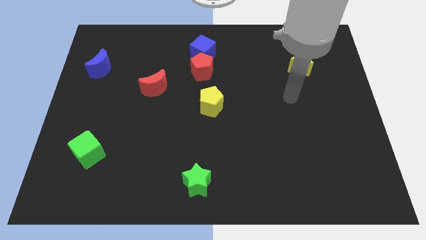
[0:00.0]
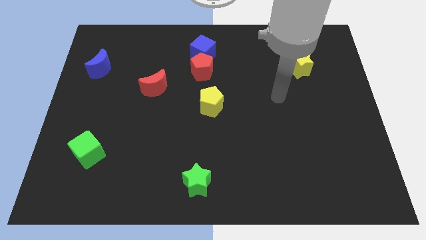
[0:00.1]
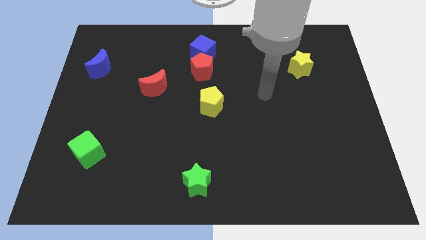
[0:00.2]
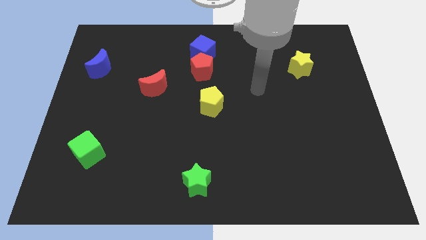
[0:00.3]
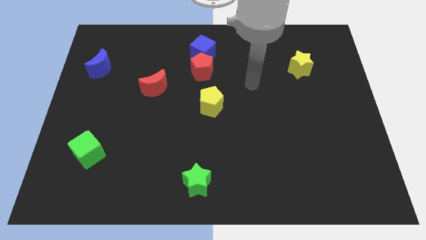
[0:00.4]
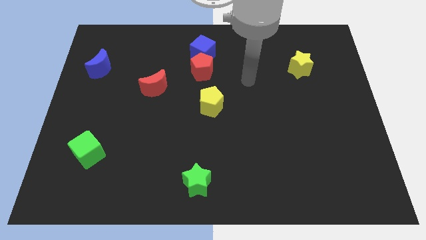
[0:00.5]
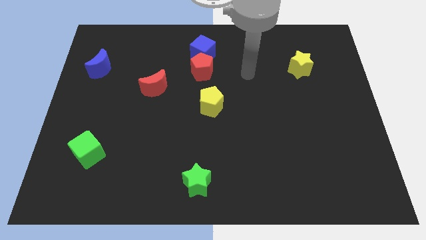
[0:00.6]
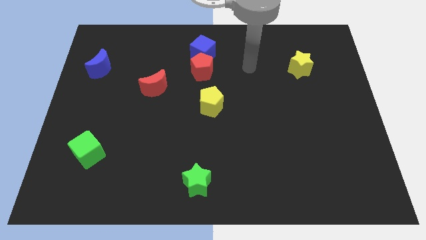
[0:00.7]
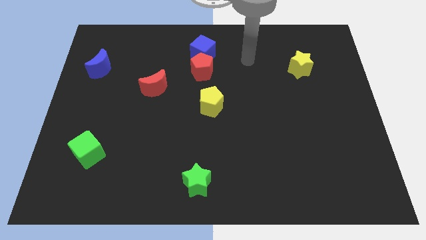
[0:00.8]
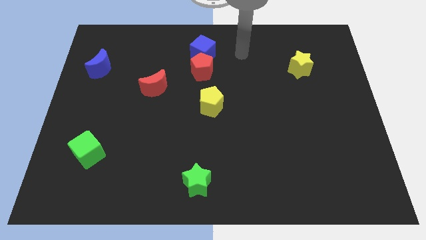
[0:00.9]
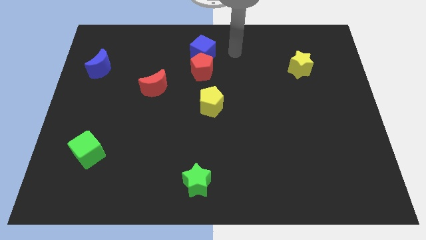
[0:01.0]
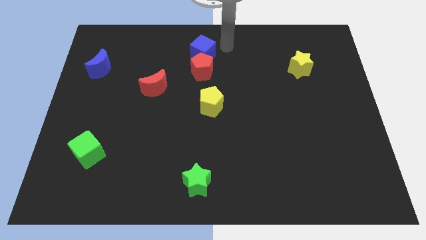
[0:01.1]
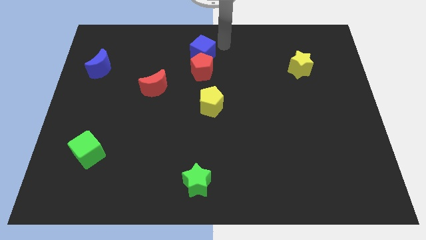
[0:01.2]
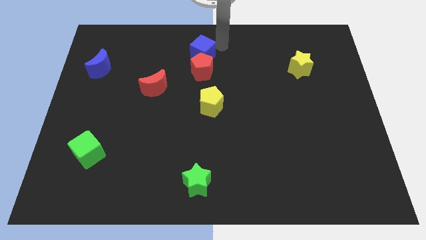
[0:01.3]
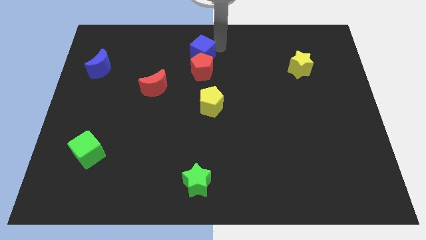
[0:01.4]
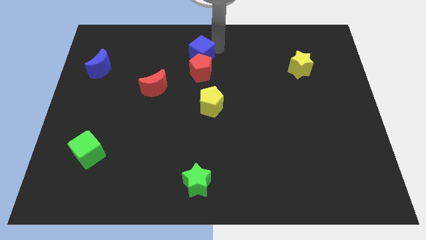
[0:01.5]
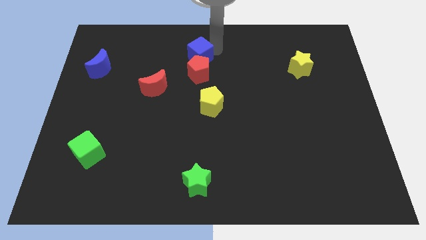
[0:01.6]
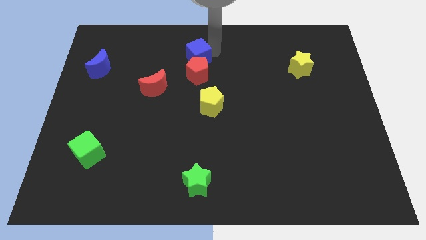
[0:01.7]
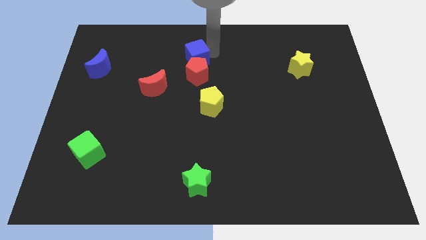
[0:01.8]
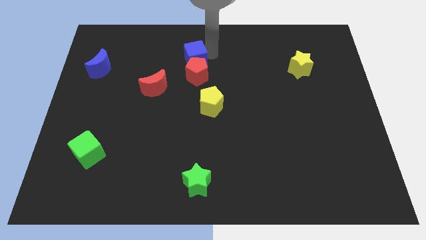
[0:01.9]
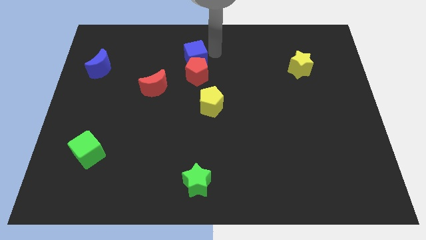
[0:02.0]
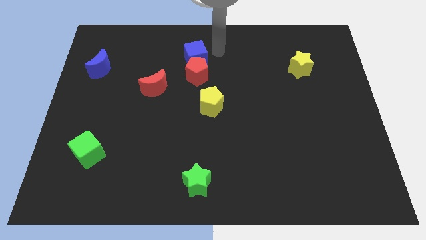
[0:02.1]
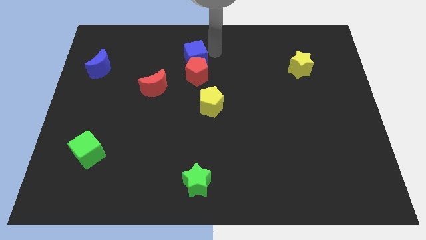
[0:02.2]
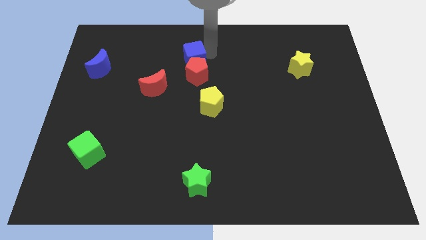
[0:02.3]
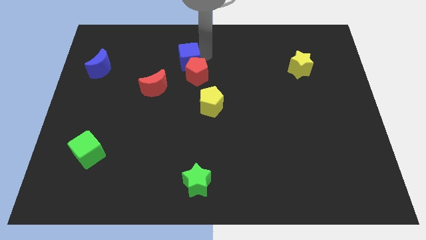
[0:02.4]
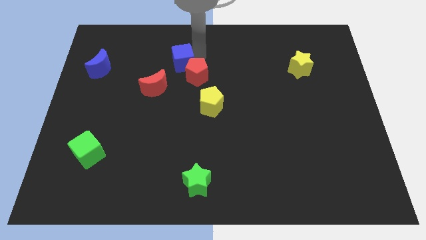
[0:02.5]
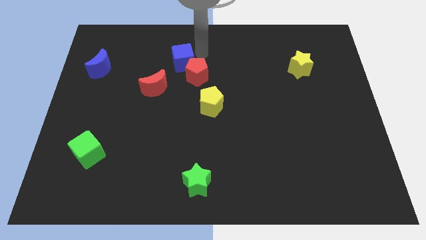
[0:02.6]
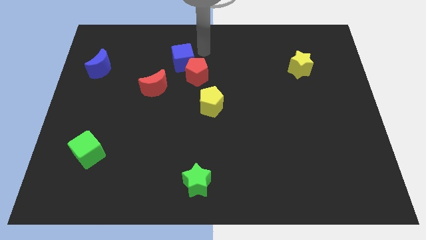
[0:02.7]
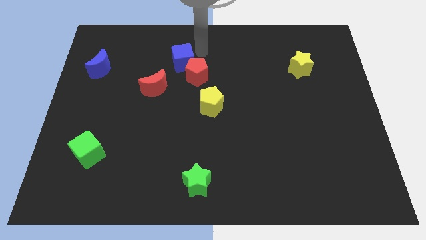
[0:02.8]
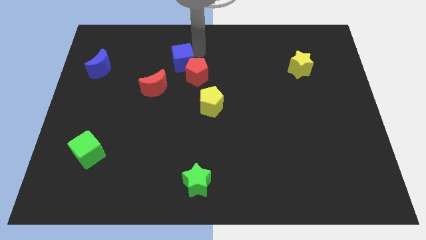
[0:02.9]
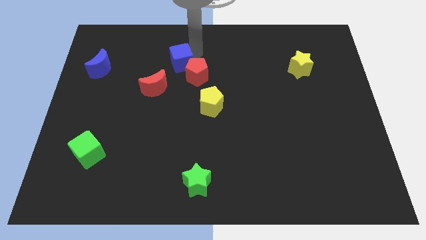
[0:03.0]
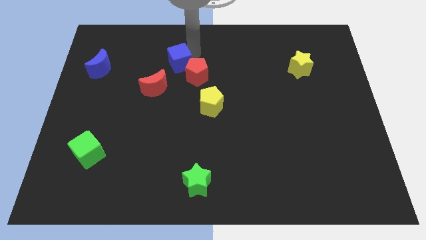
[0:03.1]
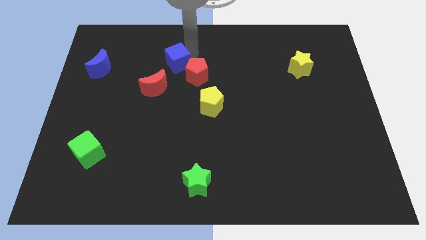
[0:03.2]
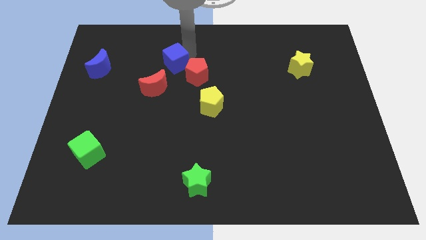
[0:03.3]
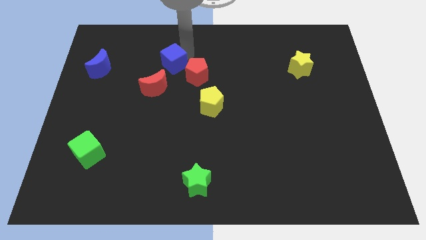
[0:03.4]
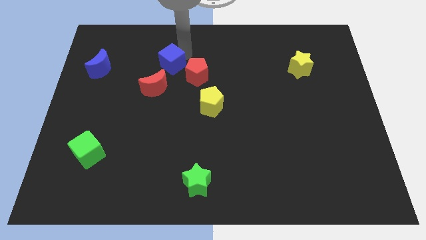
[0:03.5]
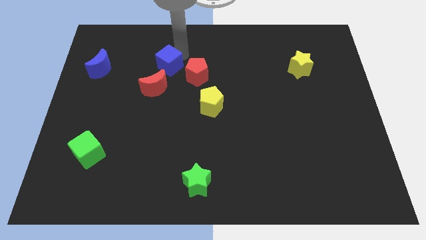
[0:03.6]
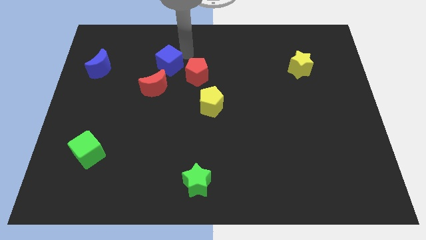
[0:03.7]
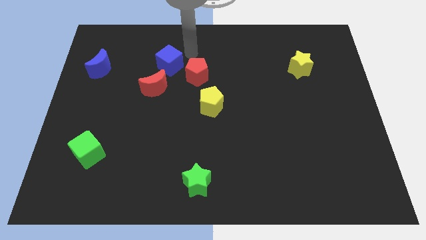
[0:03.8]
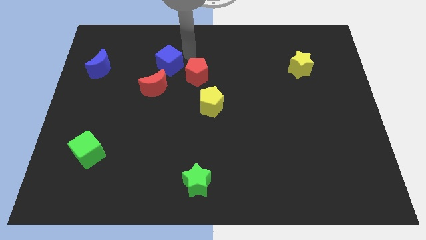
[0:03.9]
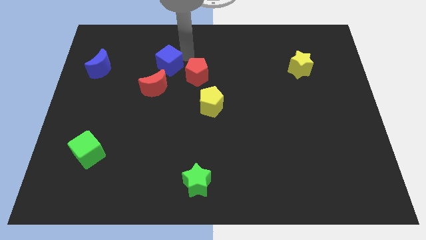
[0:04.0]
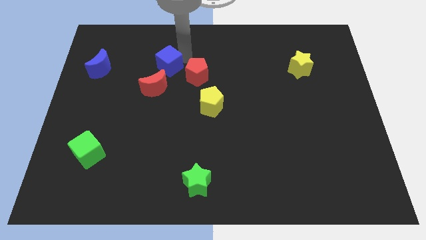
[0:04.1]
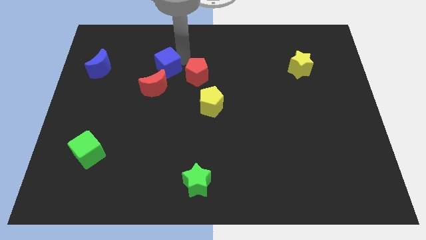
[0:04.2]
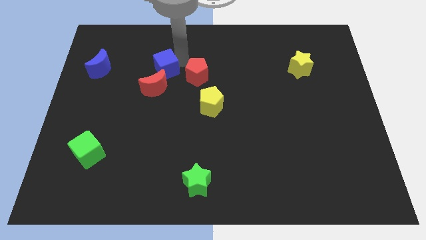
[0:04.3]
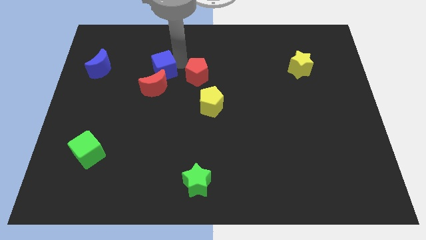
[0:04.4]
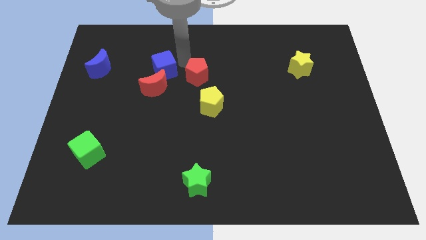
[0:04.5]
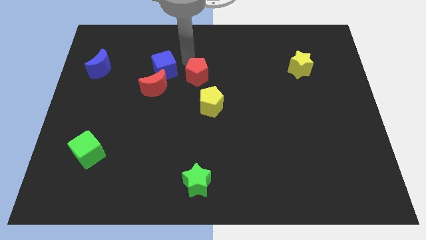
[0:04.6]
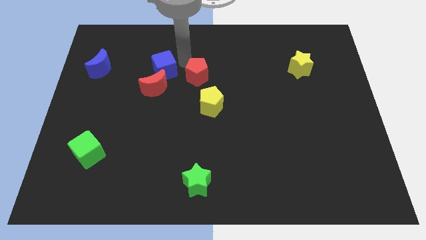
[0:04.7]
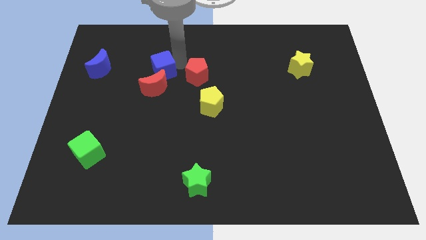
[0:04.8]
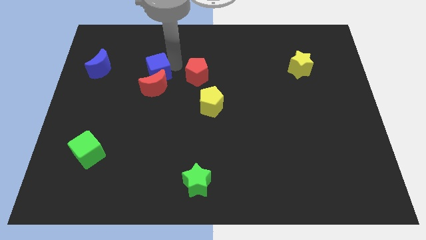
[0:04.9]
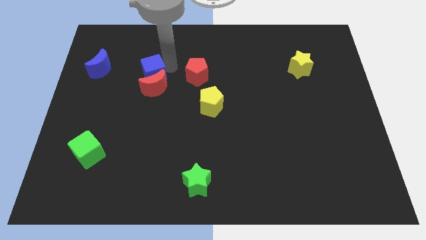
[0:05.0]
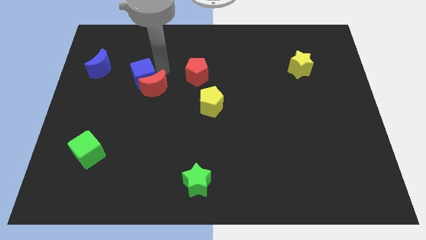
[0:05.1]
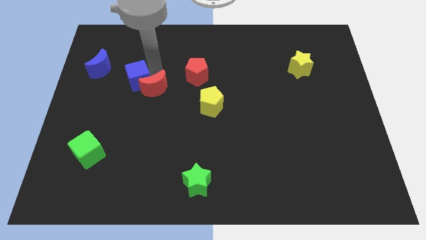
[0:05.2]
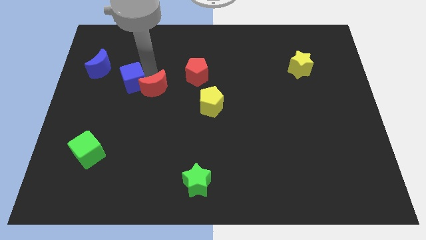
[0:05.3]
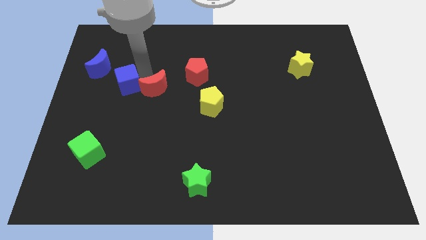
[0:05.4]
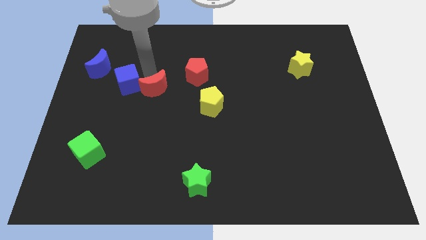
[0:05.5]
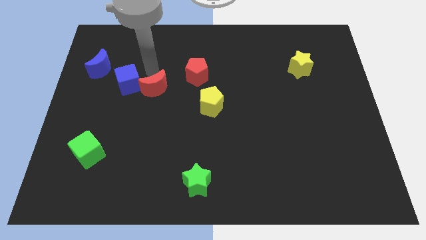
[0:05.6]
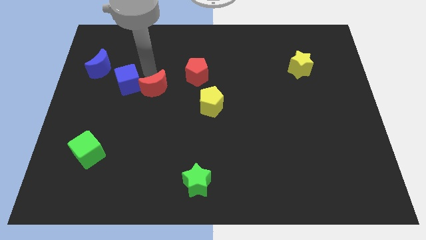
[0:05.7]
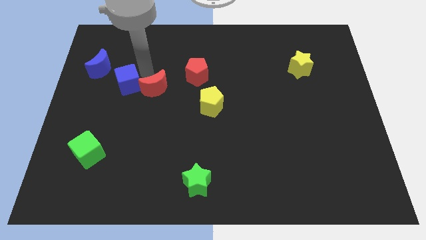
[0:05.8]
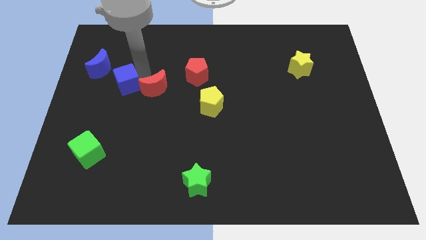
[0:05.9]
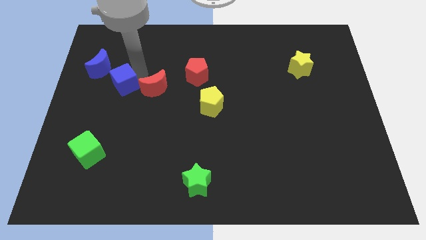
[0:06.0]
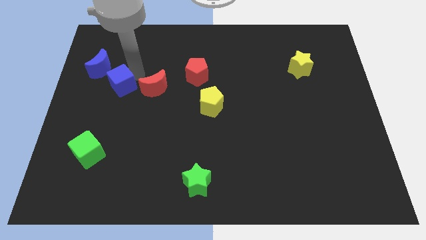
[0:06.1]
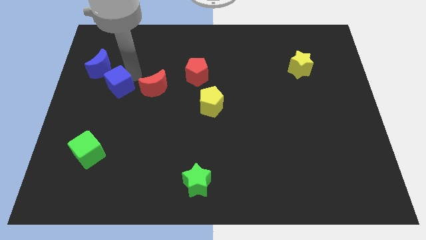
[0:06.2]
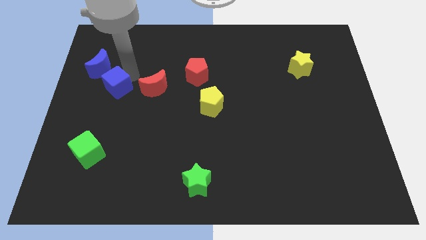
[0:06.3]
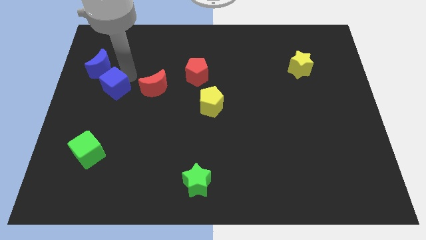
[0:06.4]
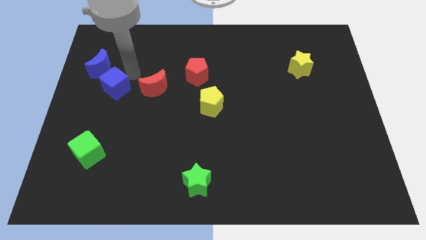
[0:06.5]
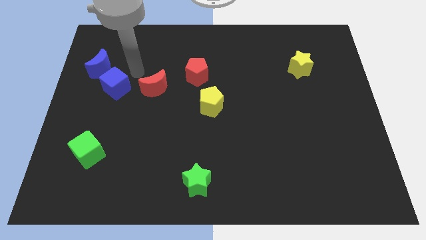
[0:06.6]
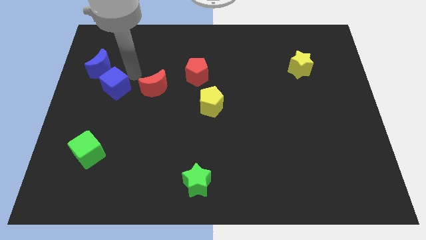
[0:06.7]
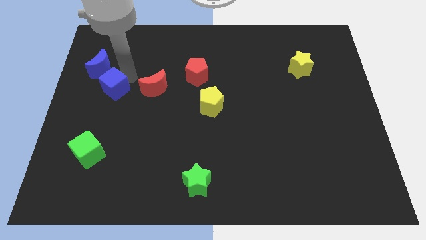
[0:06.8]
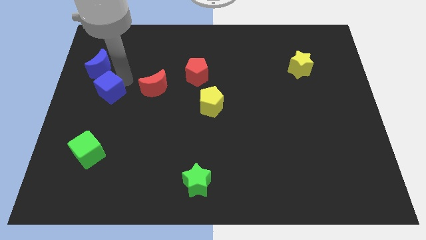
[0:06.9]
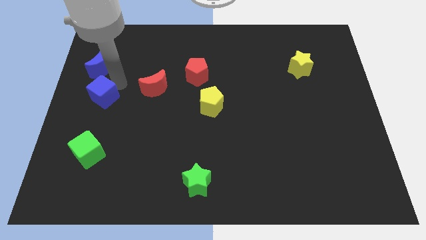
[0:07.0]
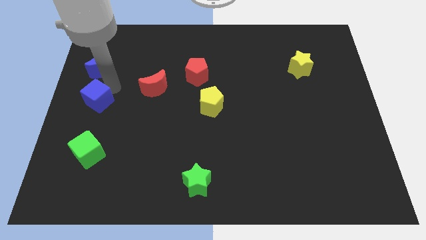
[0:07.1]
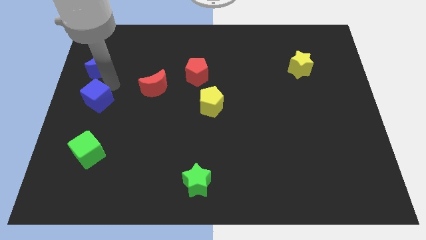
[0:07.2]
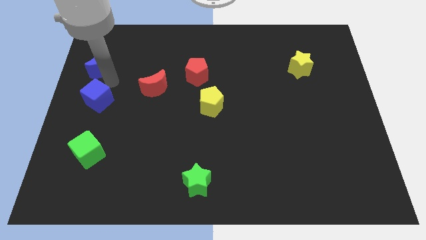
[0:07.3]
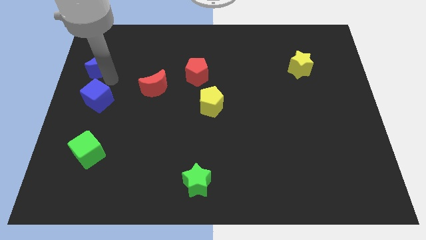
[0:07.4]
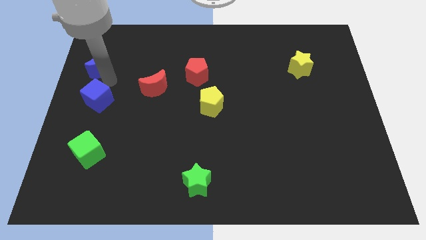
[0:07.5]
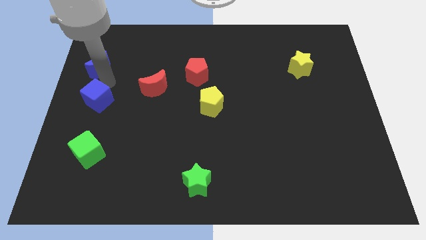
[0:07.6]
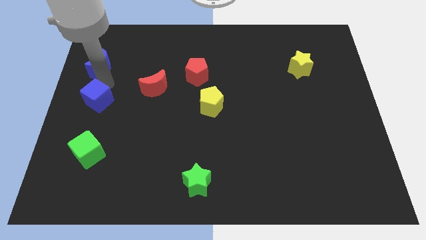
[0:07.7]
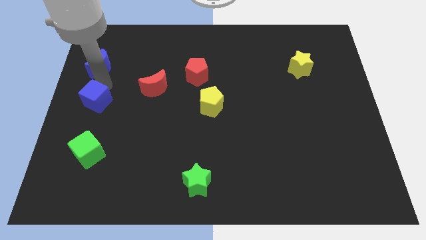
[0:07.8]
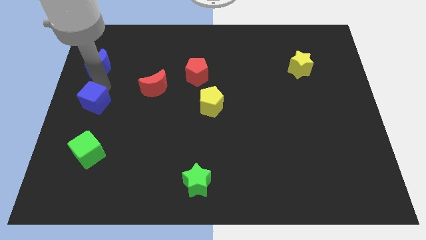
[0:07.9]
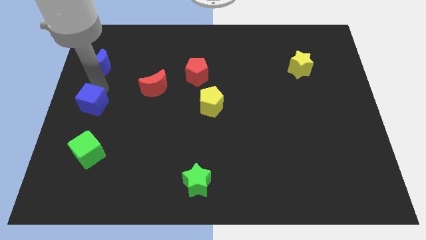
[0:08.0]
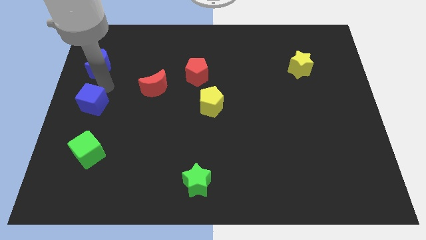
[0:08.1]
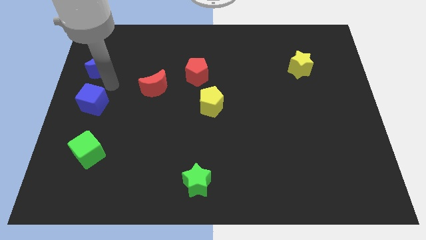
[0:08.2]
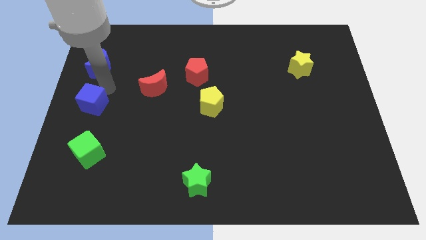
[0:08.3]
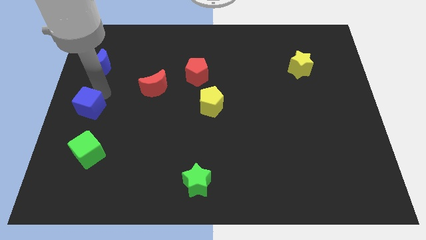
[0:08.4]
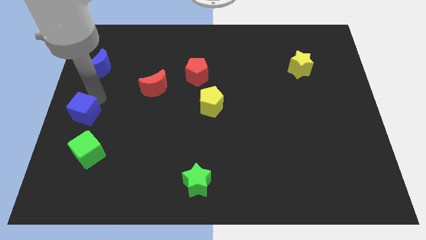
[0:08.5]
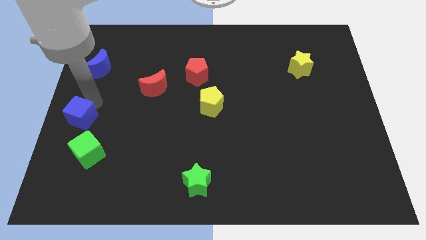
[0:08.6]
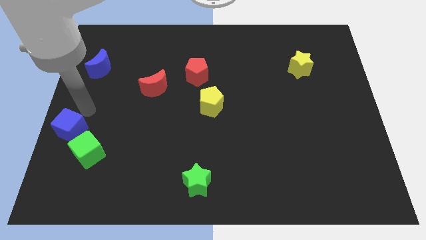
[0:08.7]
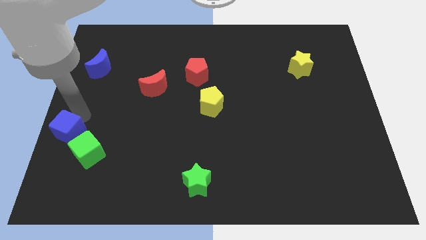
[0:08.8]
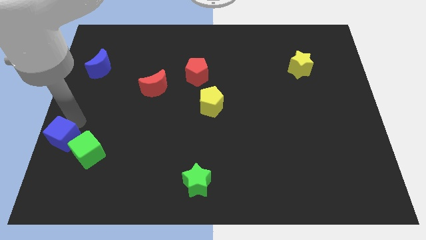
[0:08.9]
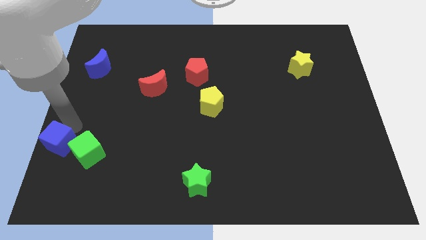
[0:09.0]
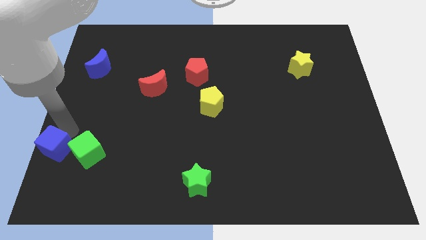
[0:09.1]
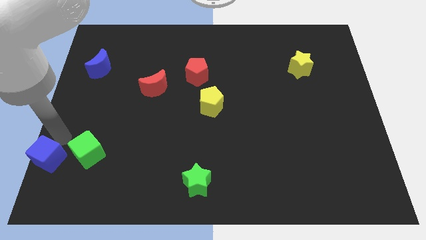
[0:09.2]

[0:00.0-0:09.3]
push the blue cube to the lower left corner
